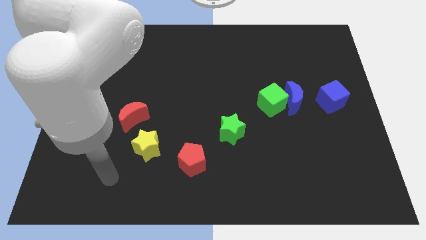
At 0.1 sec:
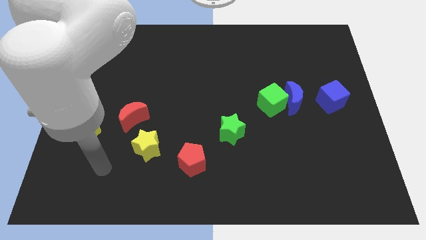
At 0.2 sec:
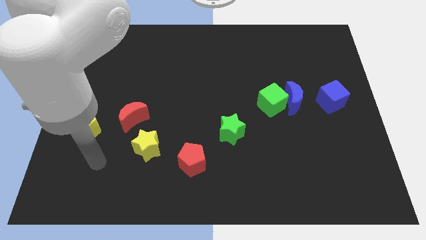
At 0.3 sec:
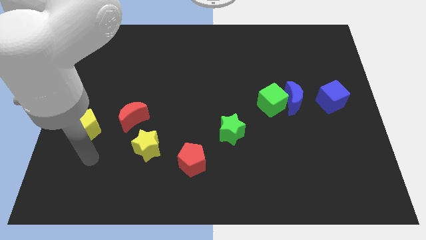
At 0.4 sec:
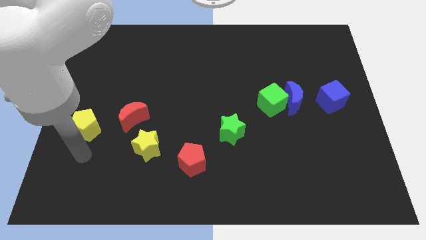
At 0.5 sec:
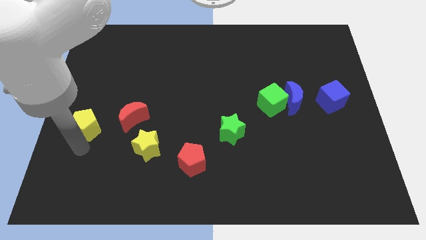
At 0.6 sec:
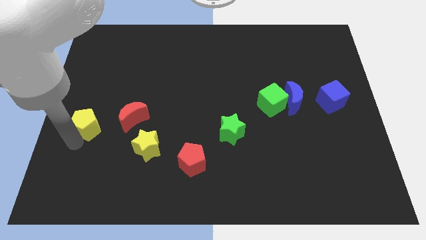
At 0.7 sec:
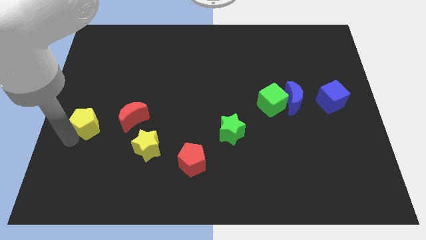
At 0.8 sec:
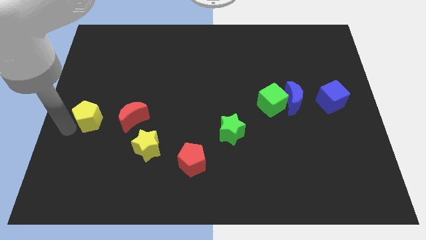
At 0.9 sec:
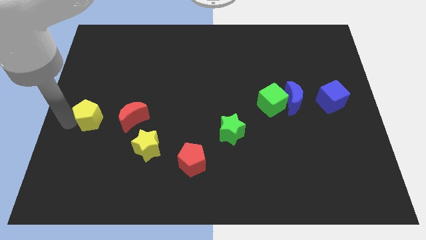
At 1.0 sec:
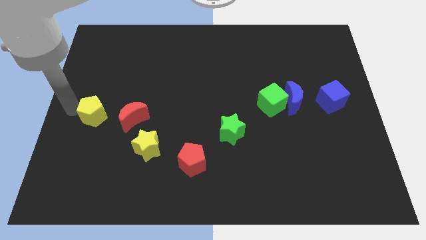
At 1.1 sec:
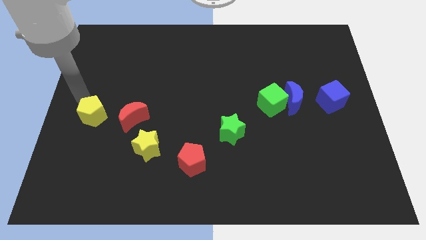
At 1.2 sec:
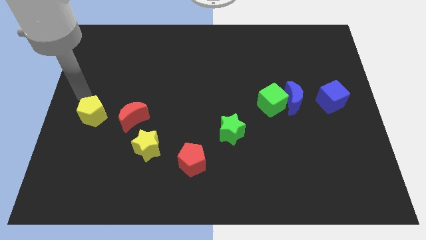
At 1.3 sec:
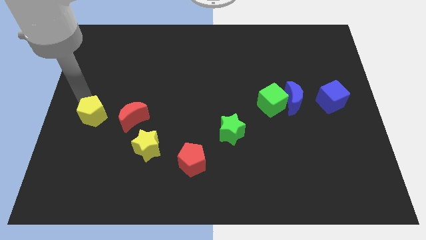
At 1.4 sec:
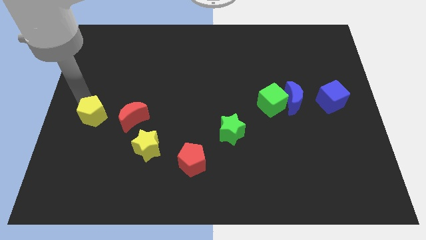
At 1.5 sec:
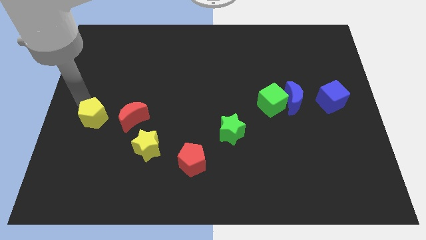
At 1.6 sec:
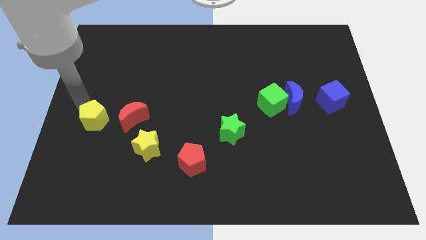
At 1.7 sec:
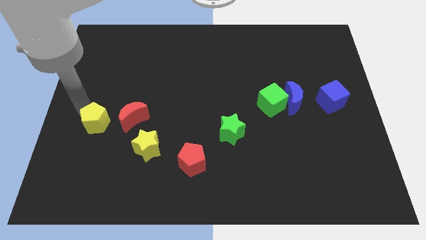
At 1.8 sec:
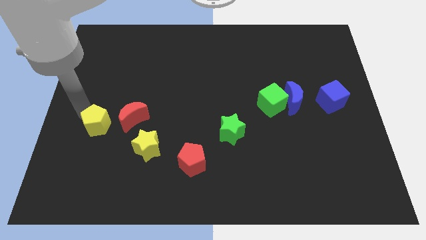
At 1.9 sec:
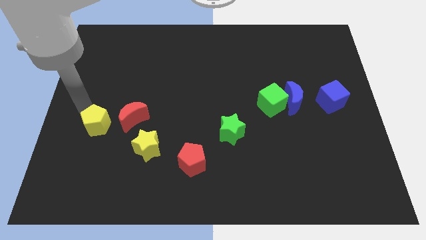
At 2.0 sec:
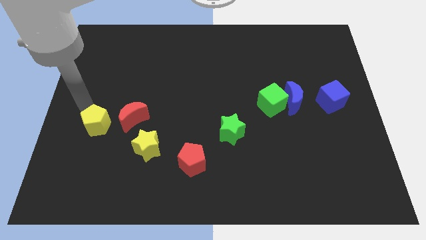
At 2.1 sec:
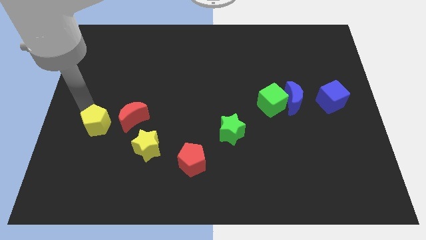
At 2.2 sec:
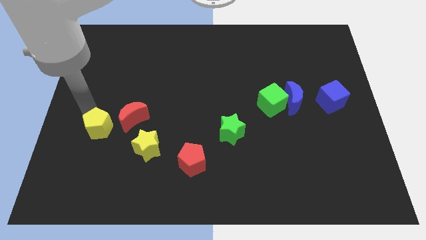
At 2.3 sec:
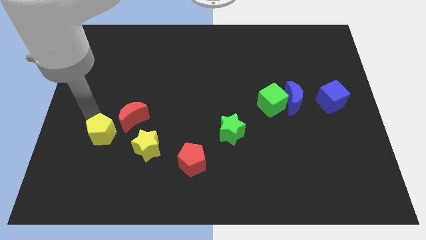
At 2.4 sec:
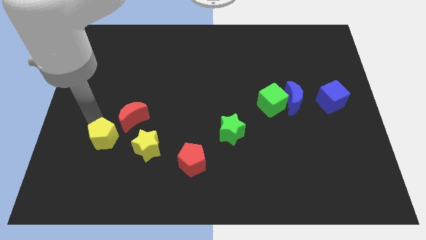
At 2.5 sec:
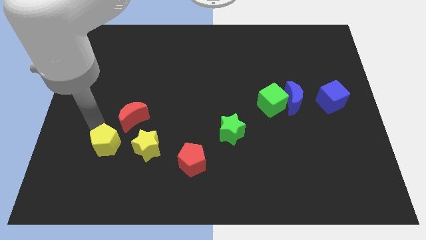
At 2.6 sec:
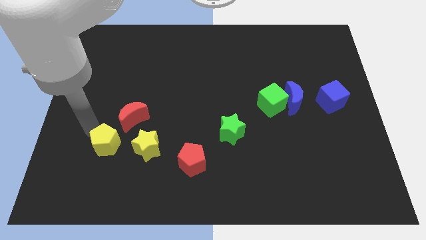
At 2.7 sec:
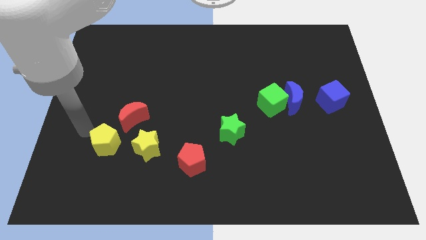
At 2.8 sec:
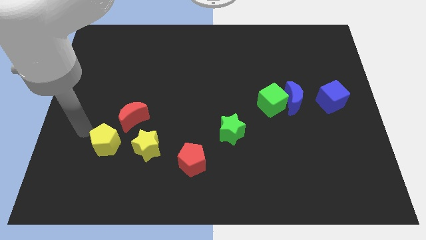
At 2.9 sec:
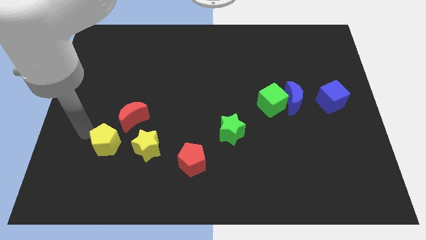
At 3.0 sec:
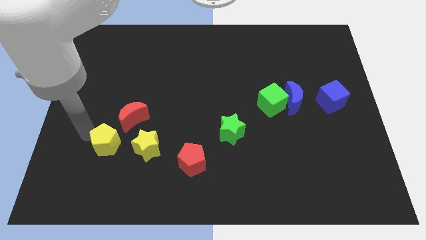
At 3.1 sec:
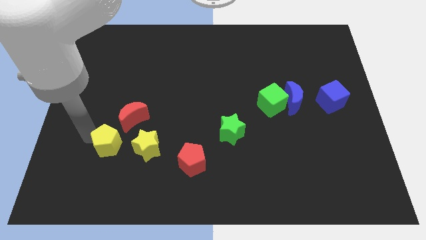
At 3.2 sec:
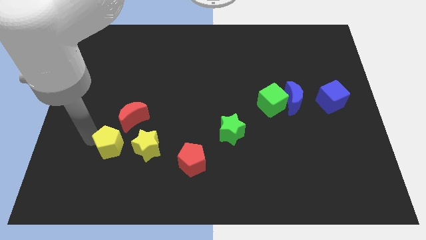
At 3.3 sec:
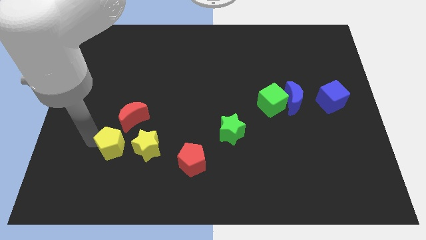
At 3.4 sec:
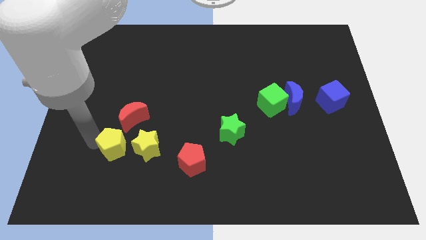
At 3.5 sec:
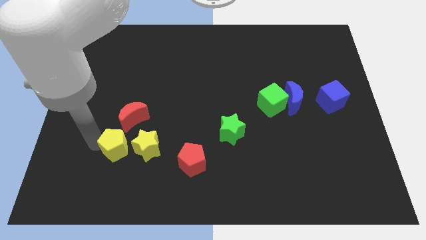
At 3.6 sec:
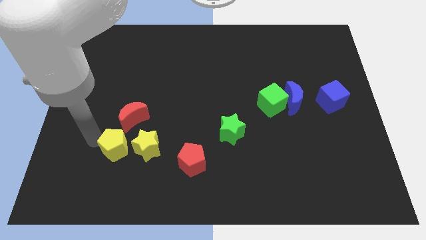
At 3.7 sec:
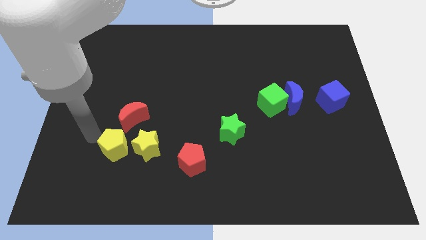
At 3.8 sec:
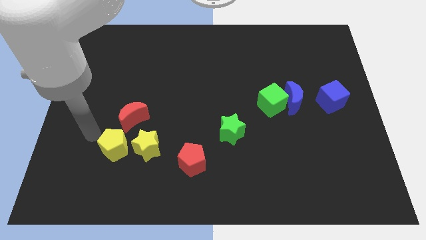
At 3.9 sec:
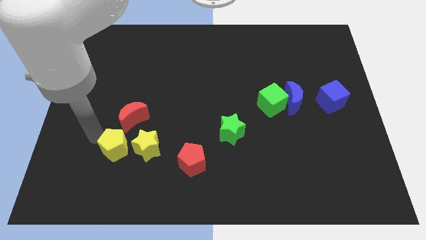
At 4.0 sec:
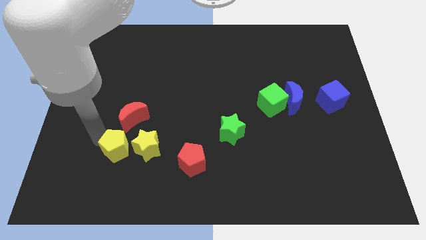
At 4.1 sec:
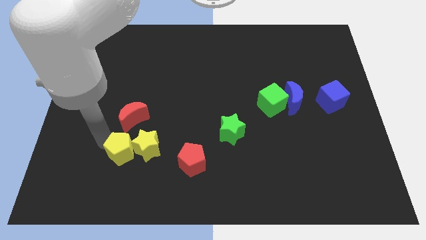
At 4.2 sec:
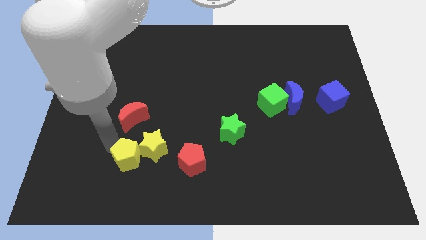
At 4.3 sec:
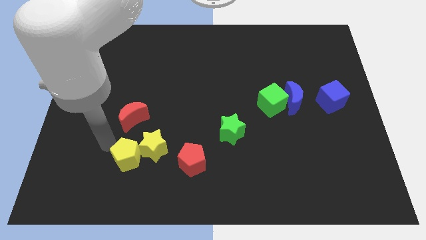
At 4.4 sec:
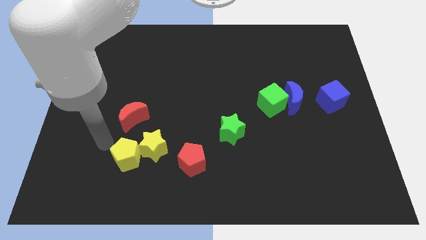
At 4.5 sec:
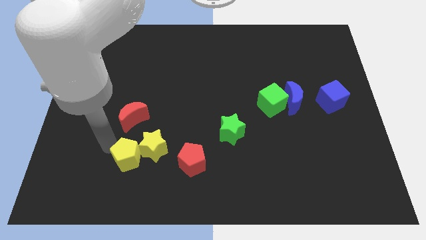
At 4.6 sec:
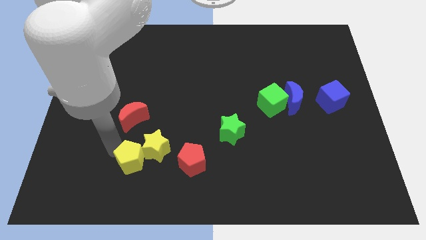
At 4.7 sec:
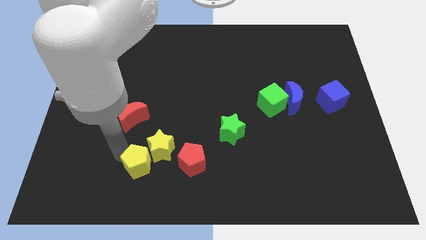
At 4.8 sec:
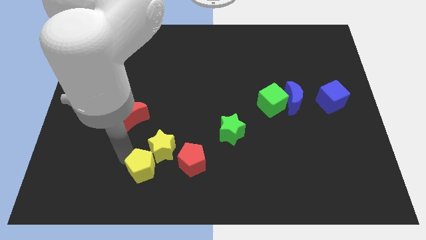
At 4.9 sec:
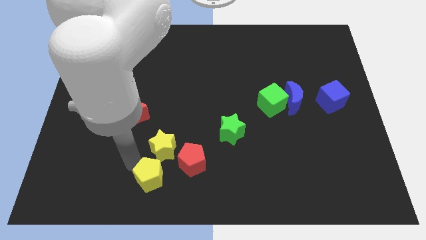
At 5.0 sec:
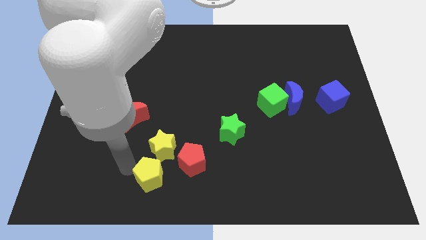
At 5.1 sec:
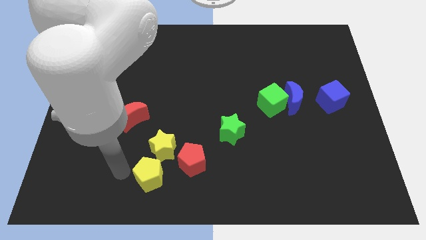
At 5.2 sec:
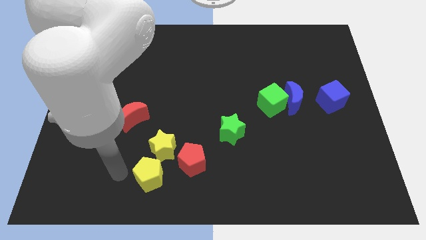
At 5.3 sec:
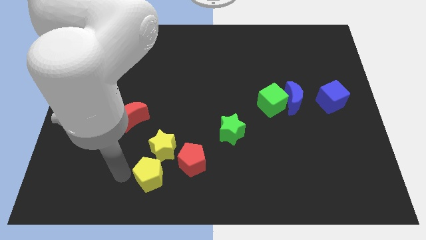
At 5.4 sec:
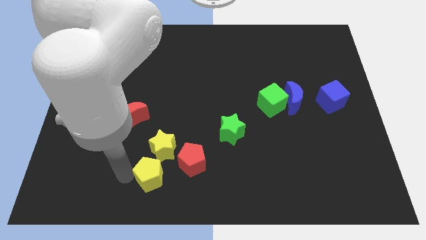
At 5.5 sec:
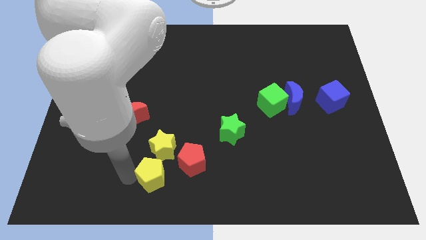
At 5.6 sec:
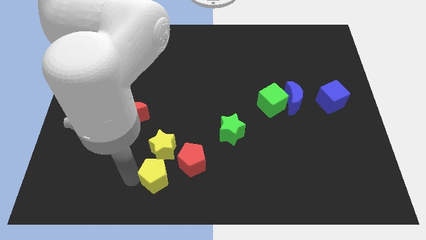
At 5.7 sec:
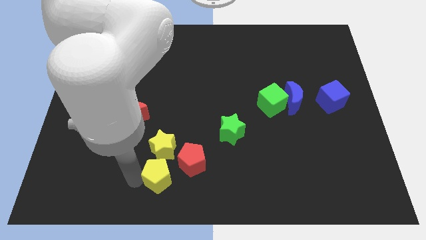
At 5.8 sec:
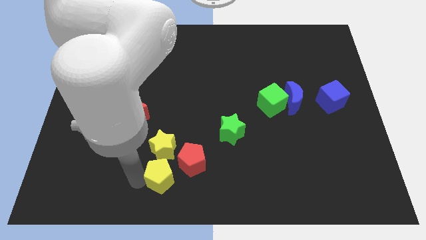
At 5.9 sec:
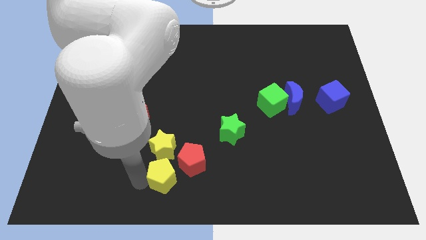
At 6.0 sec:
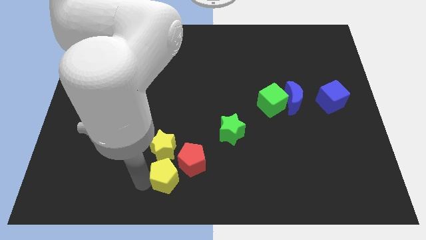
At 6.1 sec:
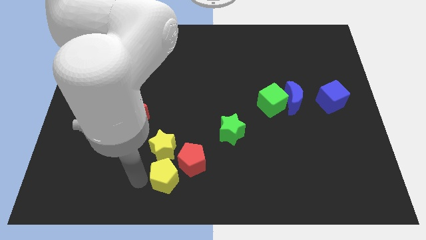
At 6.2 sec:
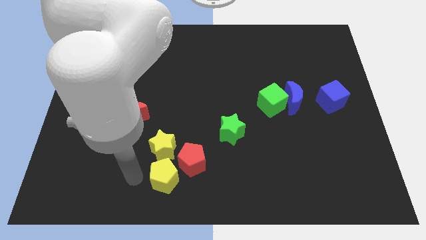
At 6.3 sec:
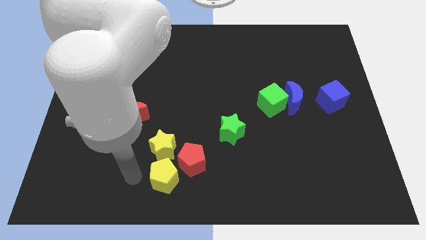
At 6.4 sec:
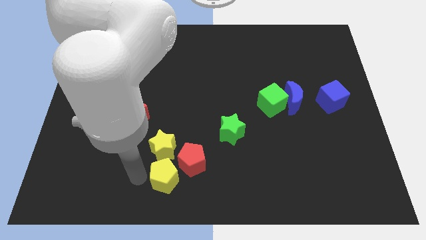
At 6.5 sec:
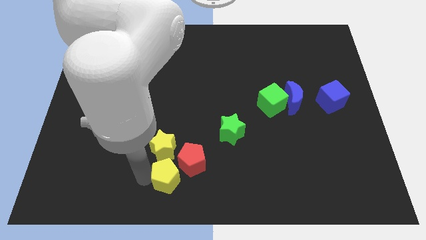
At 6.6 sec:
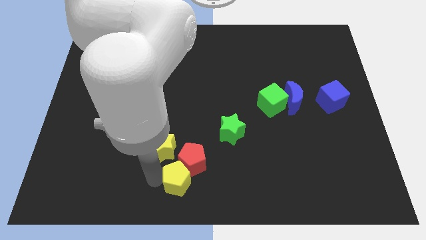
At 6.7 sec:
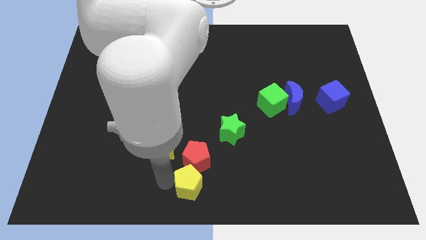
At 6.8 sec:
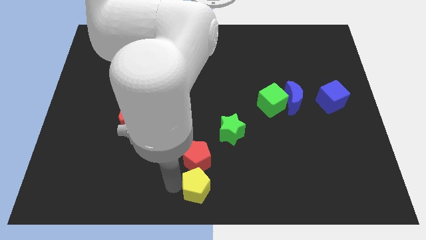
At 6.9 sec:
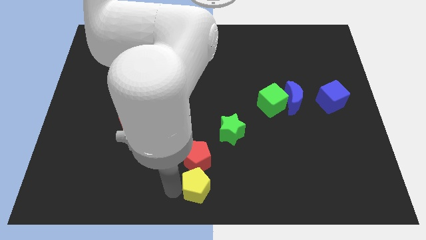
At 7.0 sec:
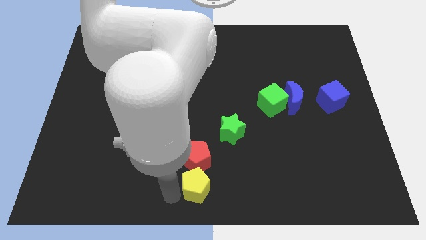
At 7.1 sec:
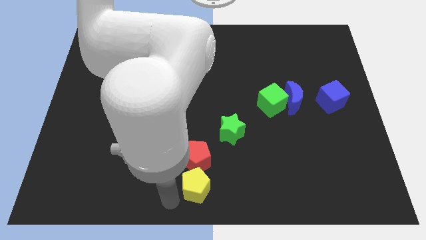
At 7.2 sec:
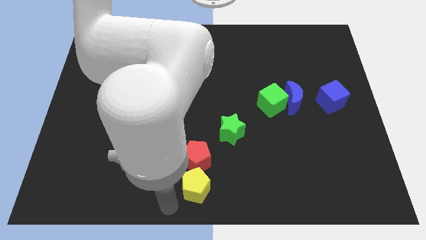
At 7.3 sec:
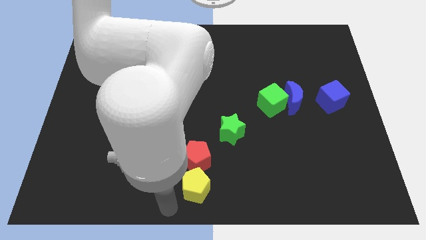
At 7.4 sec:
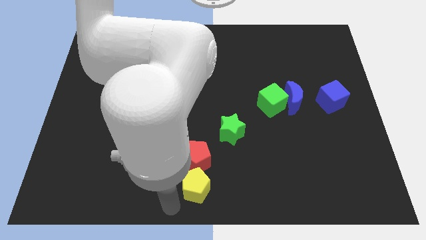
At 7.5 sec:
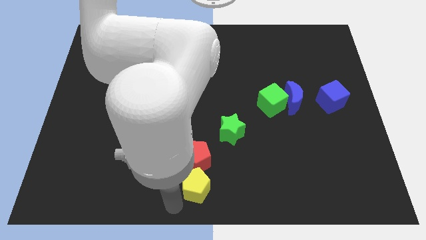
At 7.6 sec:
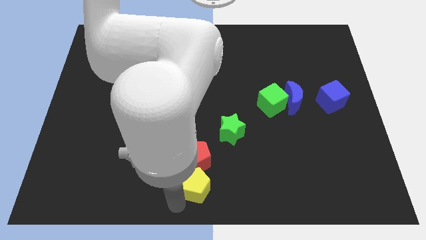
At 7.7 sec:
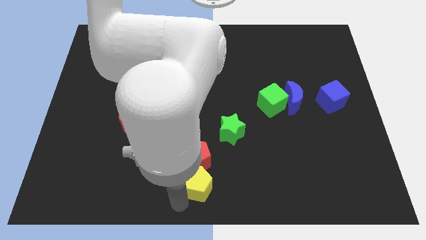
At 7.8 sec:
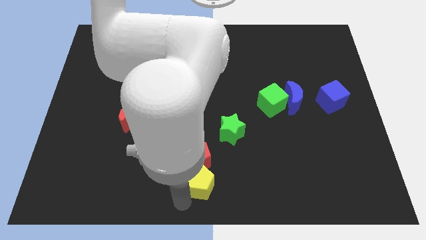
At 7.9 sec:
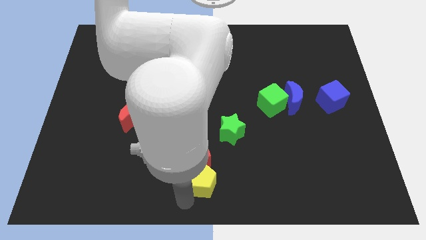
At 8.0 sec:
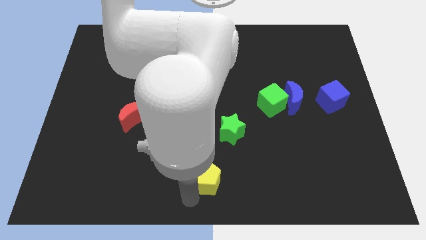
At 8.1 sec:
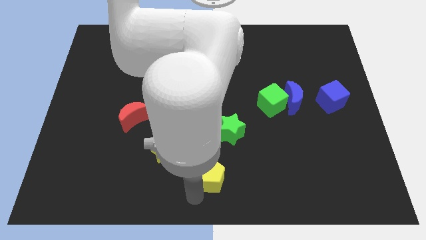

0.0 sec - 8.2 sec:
move the yellow pentagon right of the red pentagon
